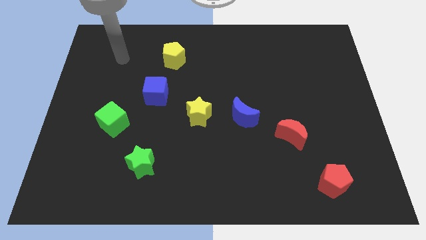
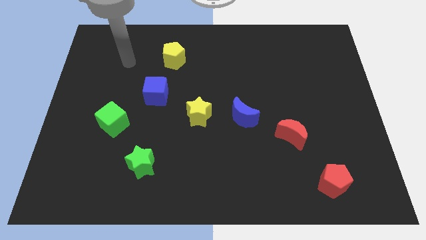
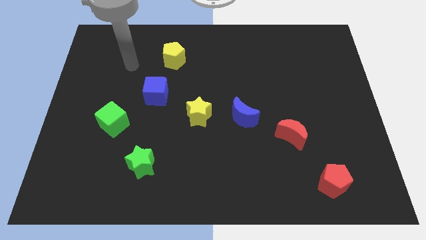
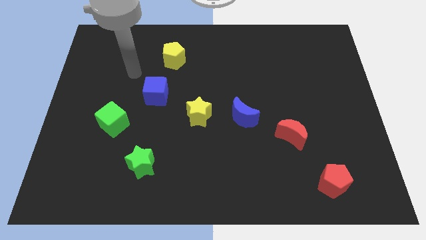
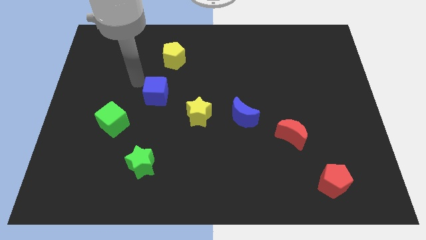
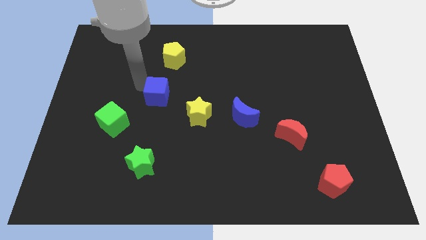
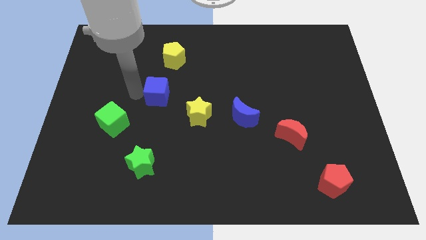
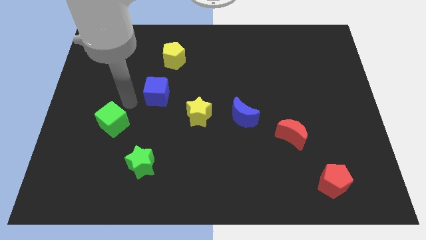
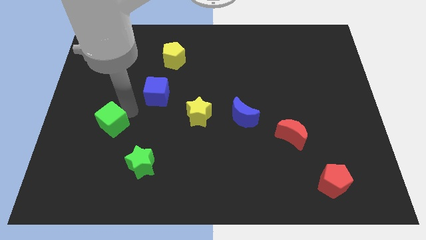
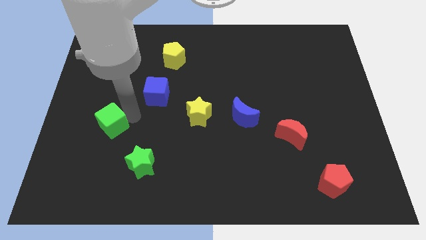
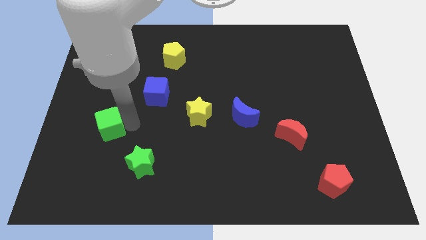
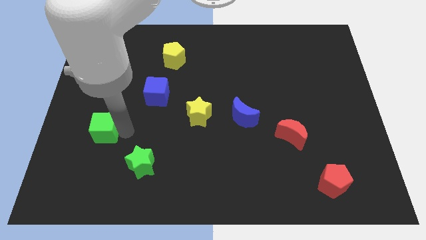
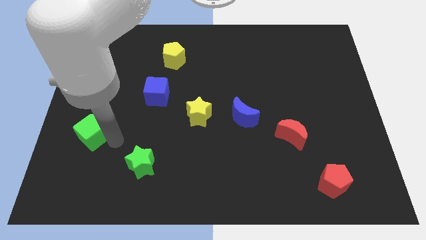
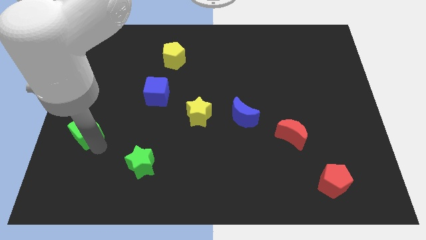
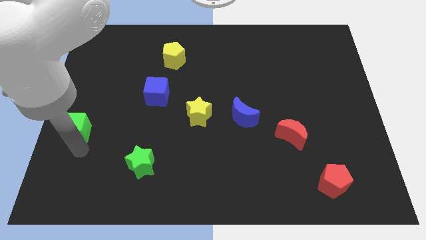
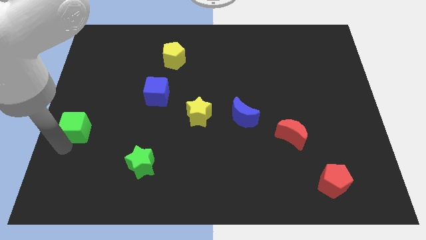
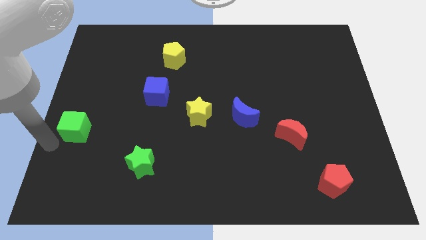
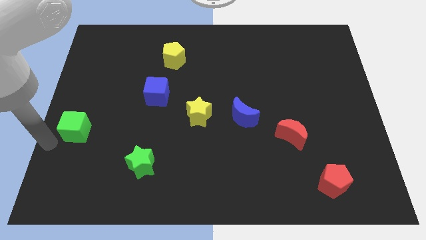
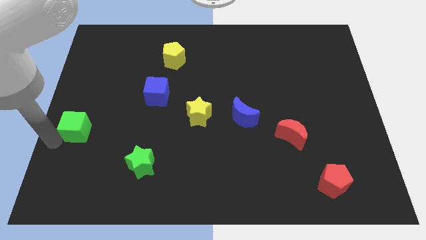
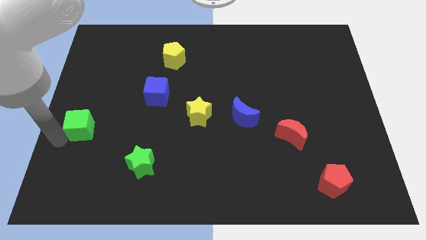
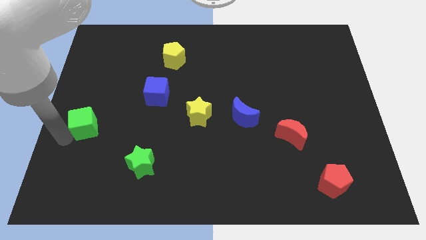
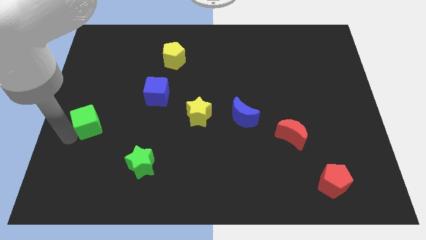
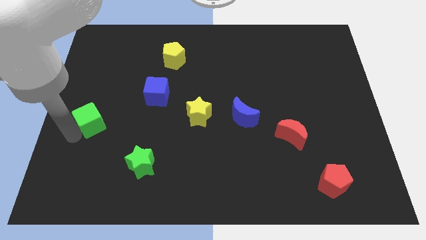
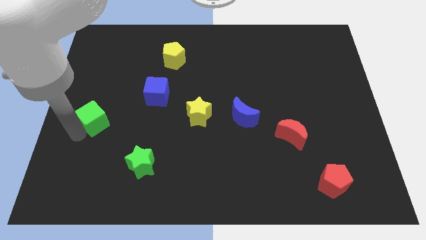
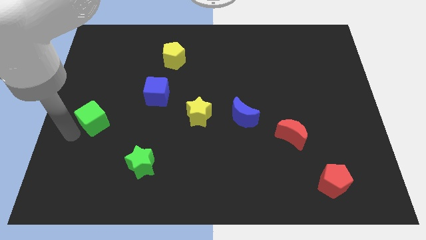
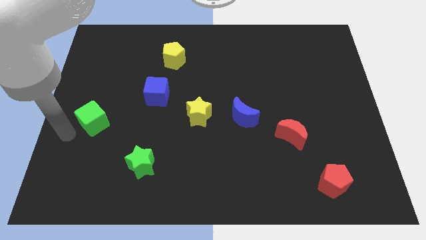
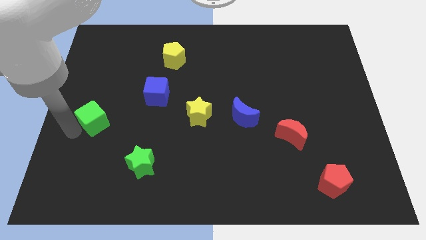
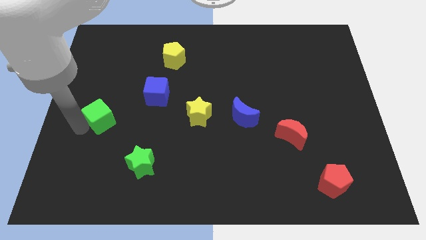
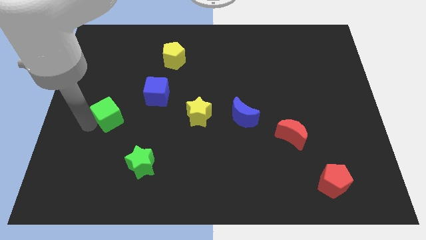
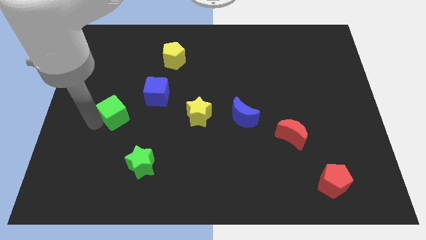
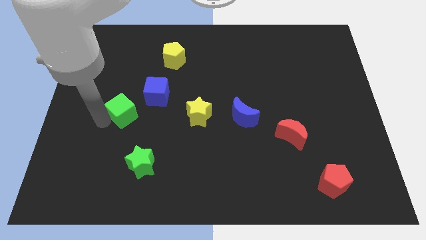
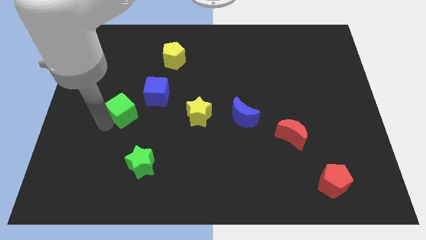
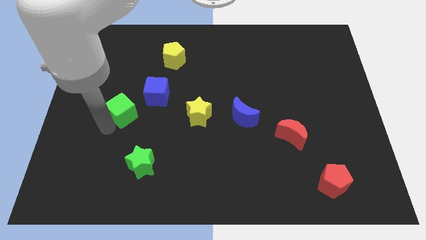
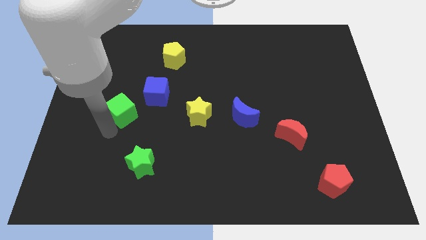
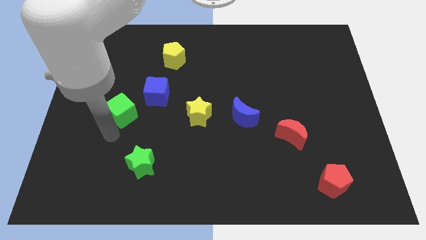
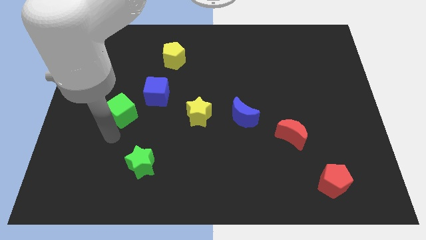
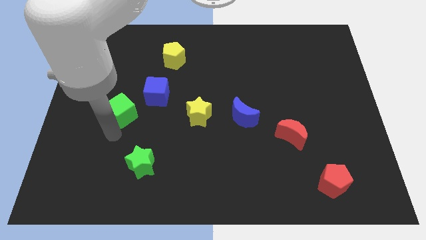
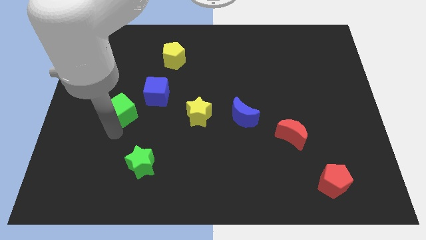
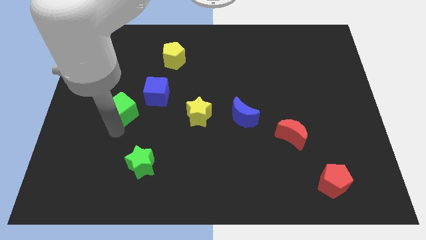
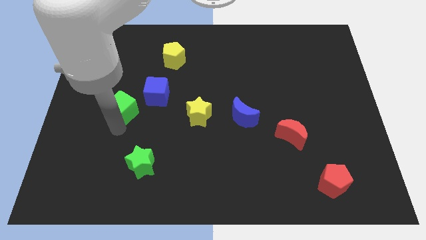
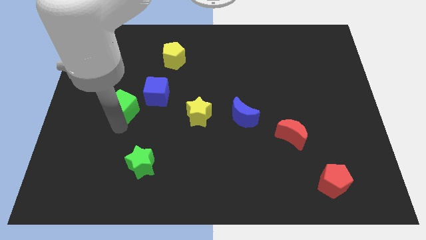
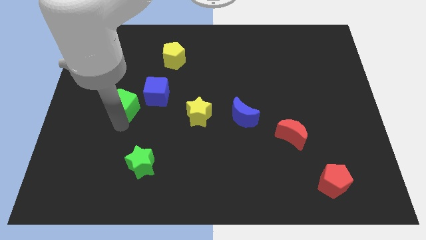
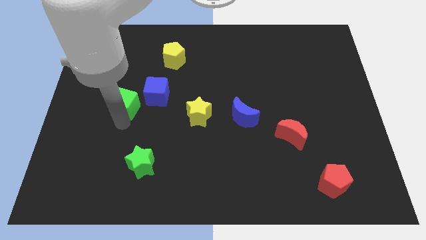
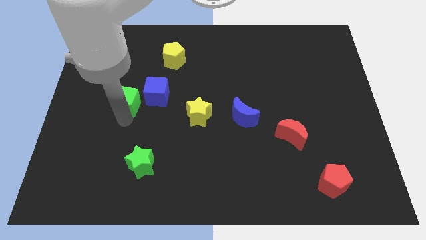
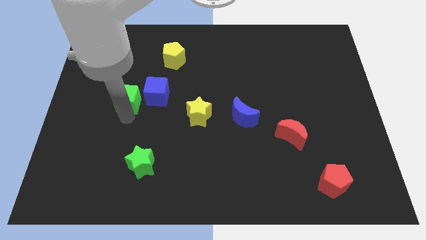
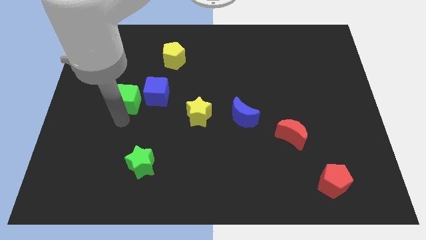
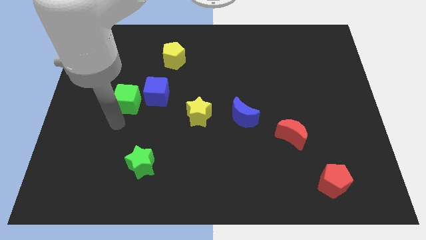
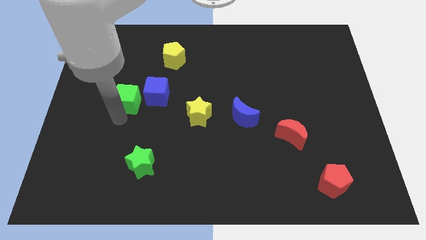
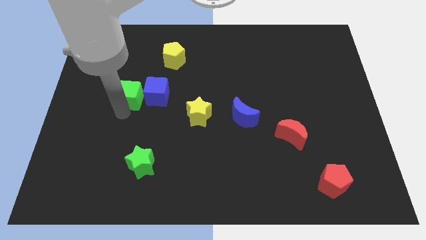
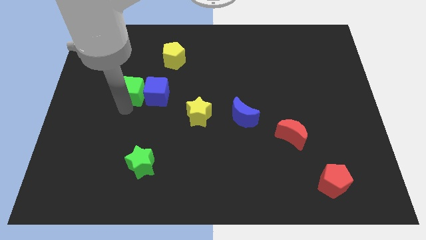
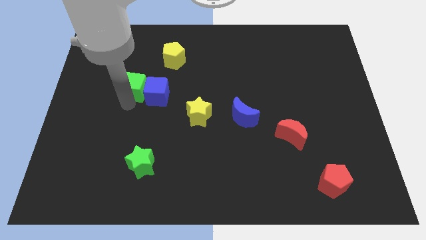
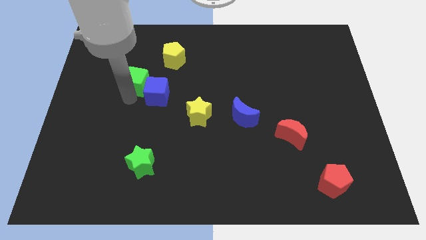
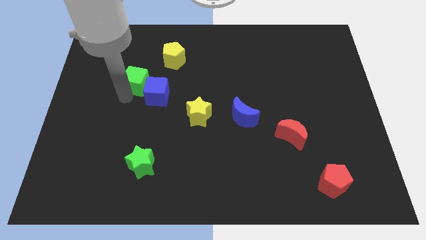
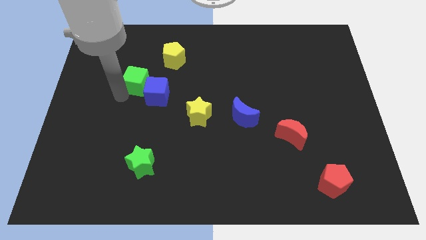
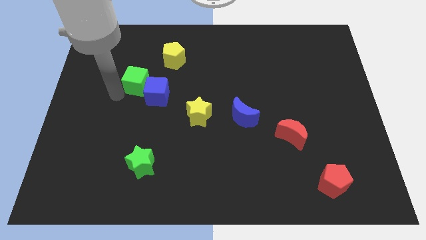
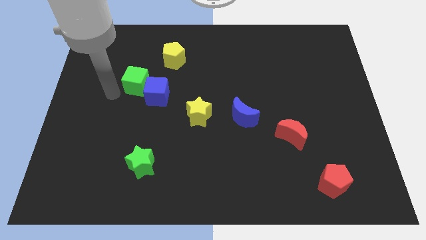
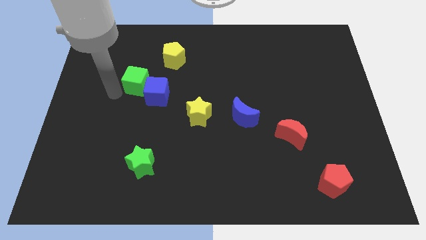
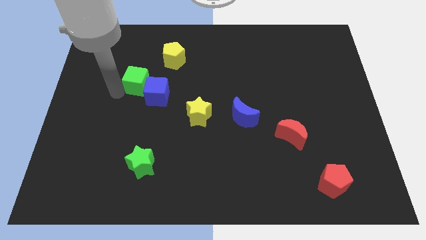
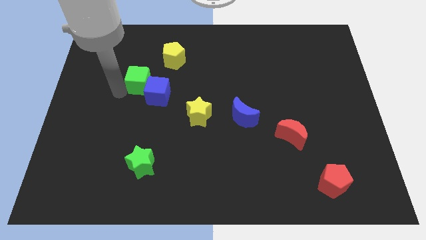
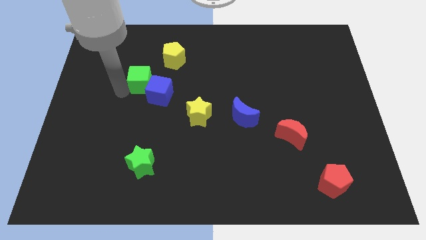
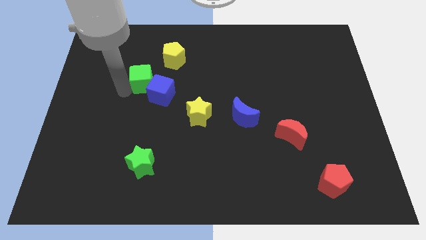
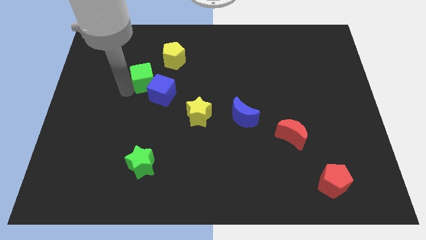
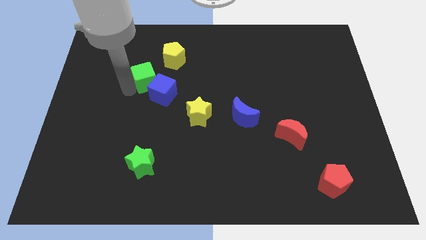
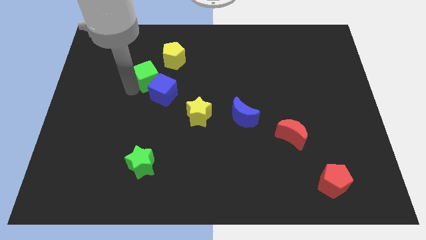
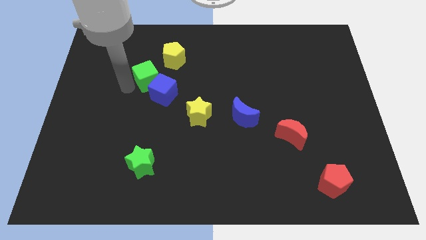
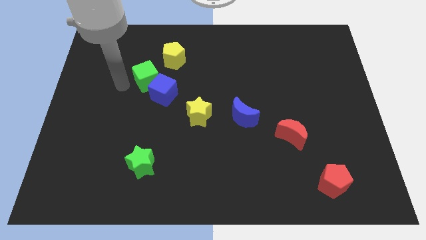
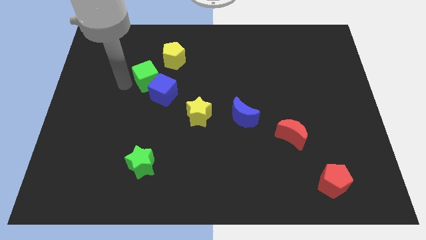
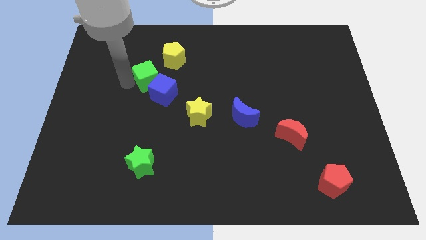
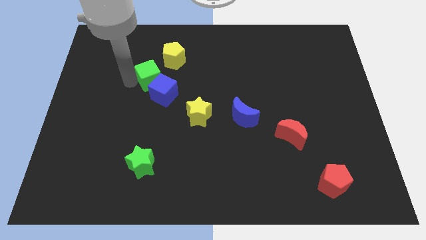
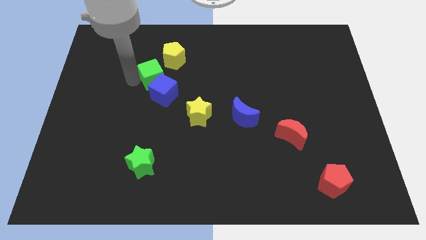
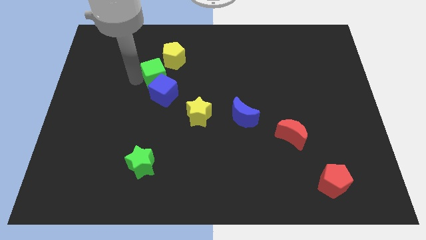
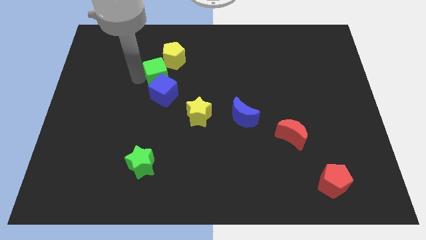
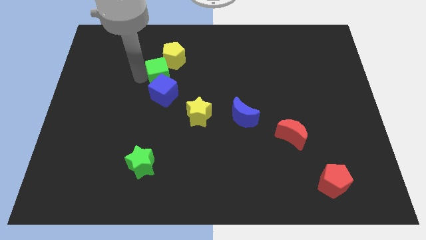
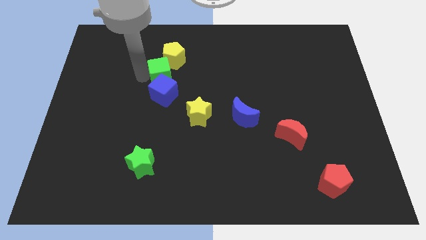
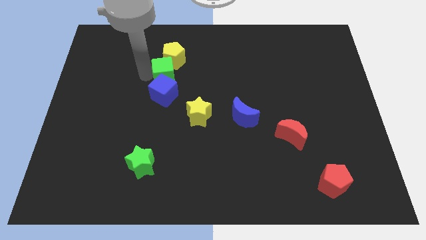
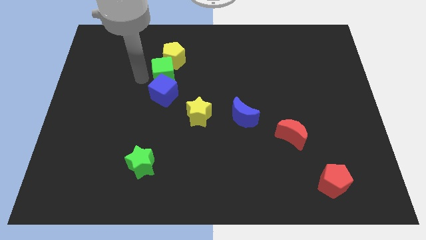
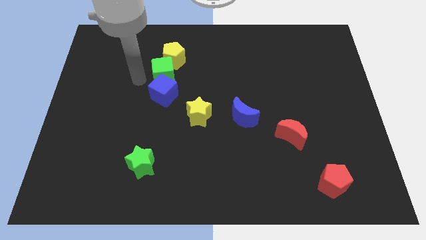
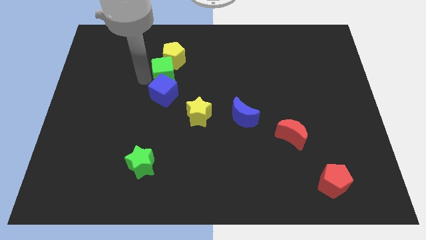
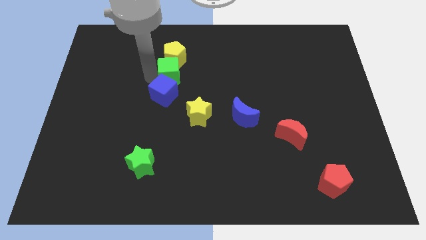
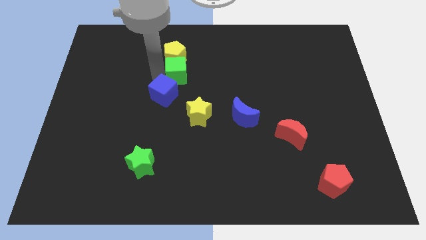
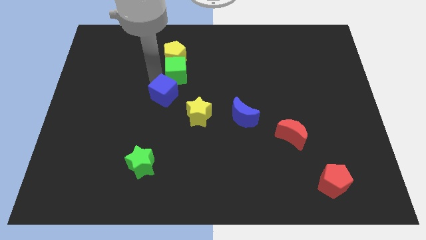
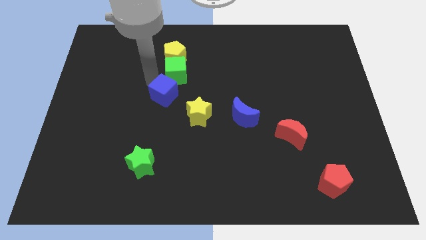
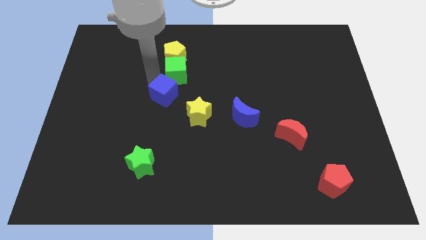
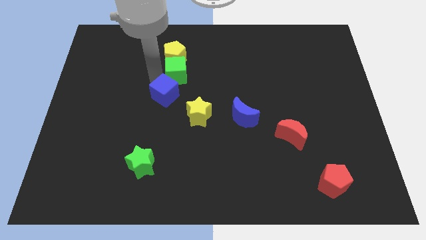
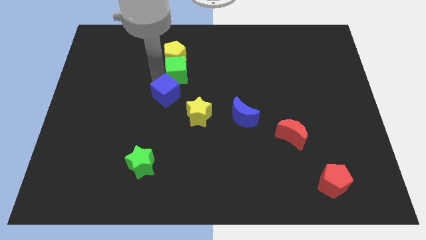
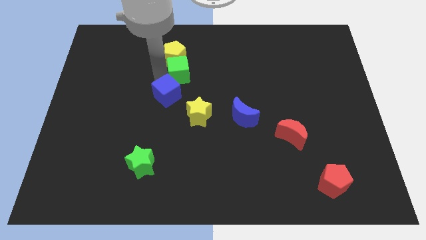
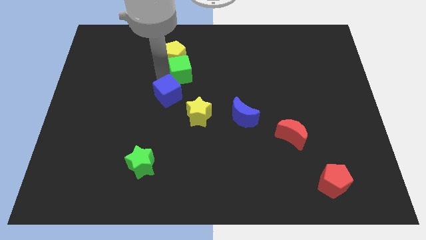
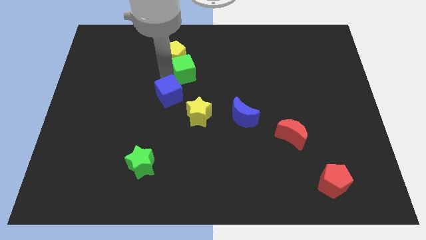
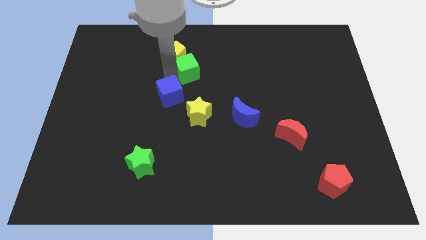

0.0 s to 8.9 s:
push the green cube just right of the yellow pentagon
